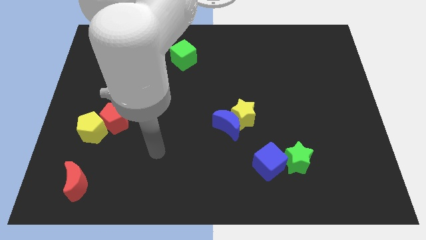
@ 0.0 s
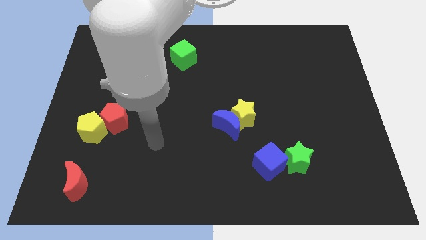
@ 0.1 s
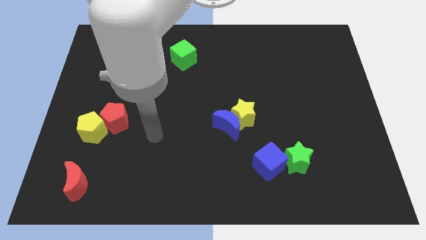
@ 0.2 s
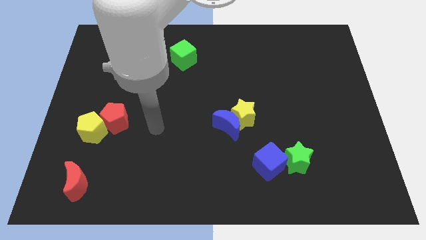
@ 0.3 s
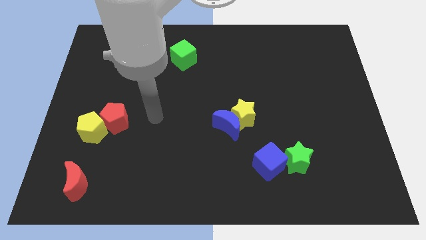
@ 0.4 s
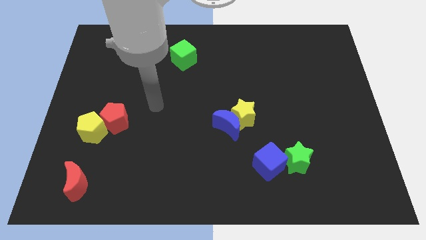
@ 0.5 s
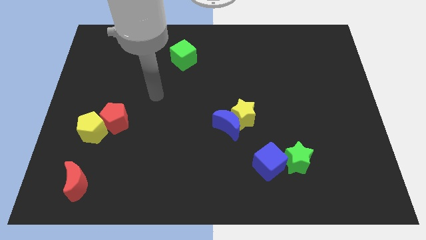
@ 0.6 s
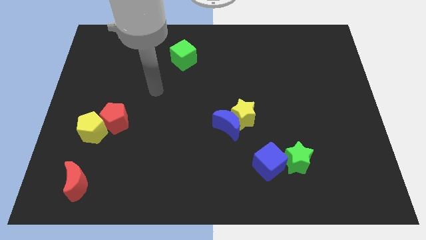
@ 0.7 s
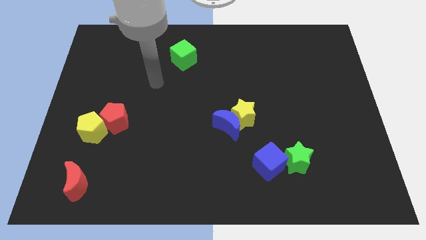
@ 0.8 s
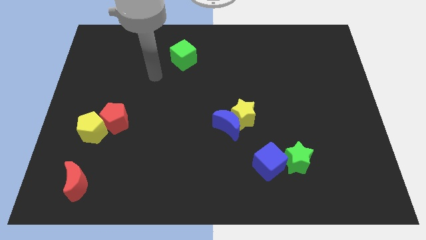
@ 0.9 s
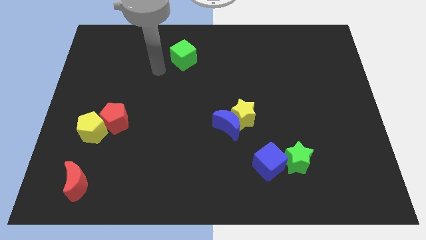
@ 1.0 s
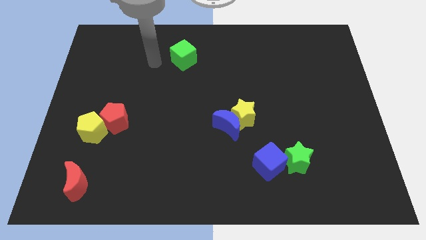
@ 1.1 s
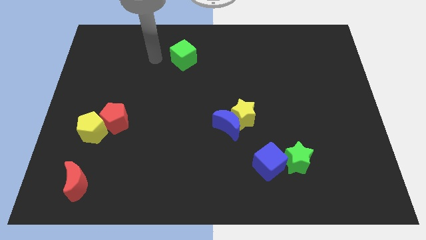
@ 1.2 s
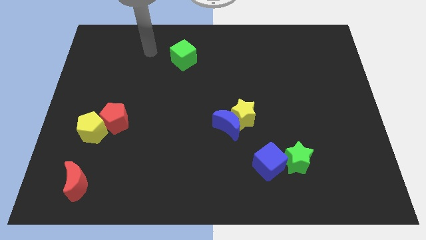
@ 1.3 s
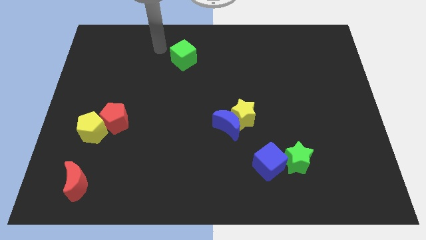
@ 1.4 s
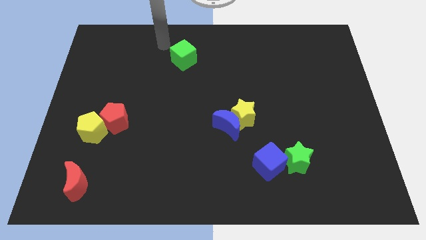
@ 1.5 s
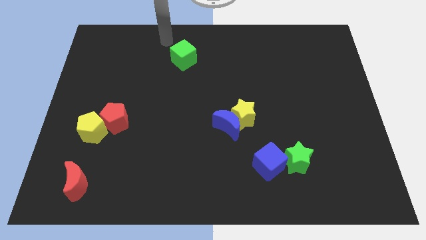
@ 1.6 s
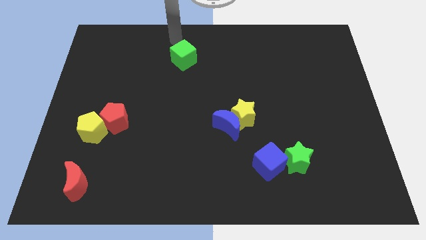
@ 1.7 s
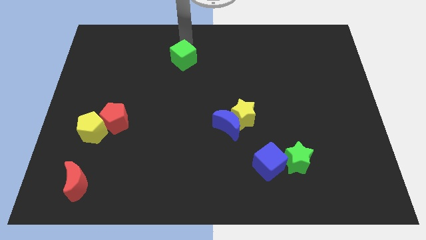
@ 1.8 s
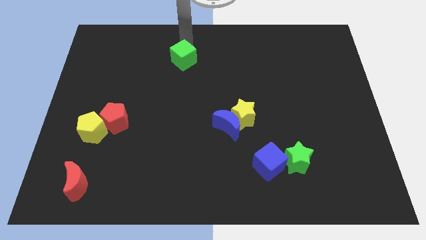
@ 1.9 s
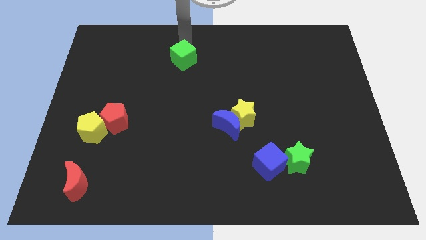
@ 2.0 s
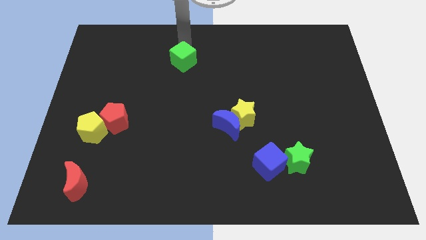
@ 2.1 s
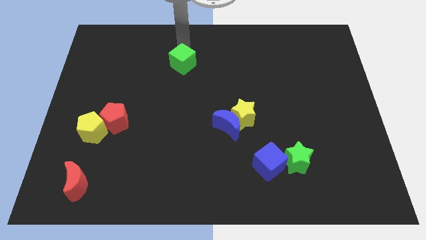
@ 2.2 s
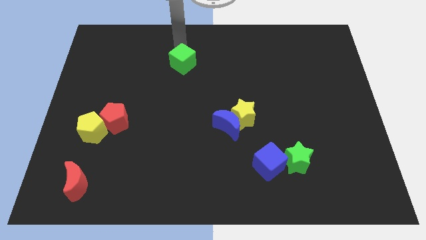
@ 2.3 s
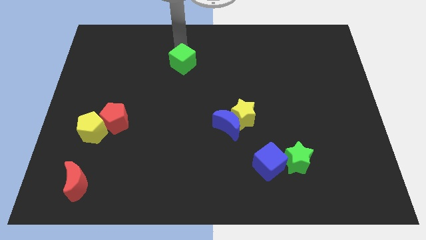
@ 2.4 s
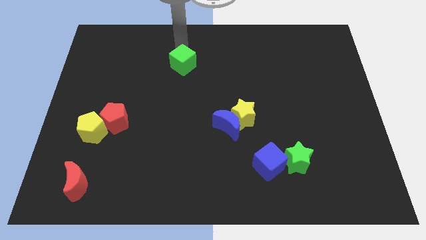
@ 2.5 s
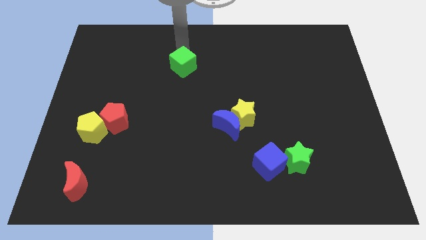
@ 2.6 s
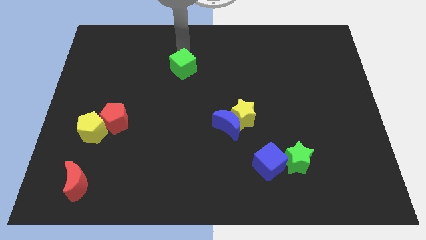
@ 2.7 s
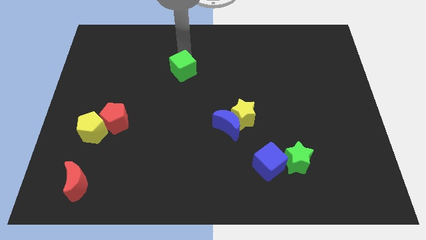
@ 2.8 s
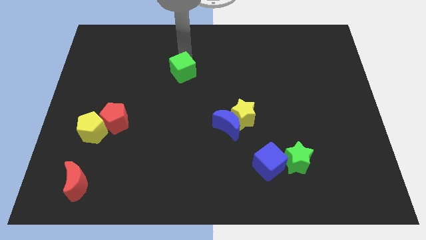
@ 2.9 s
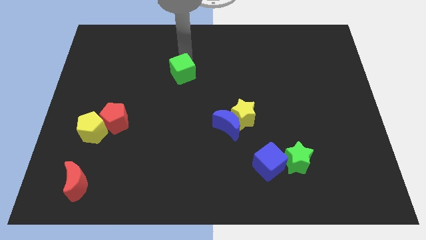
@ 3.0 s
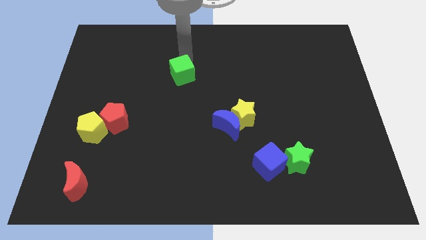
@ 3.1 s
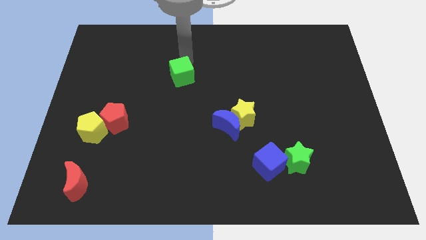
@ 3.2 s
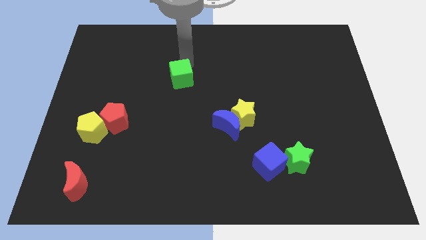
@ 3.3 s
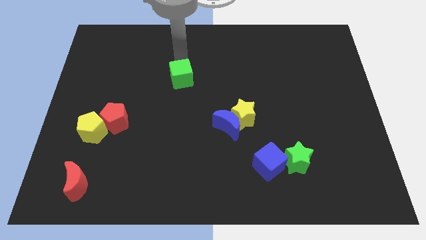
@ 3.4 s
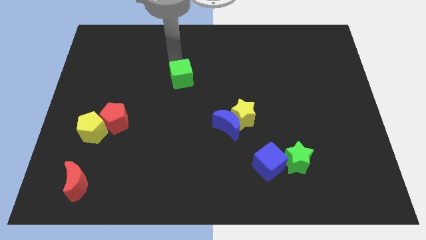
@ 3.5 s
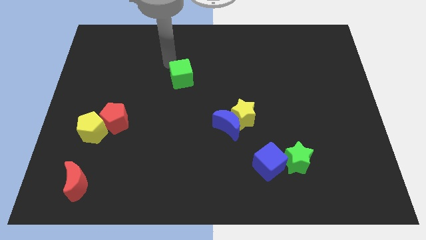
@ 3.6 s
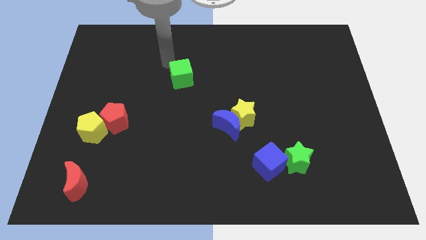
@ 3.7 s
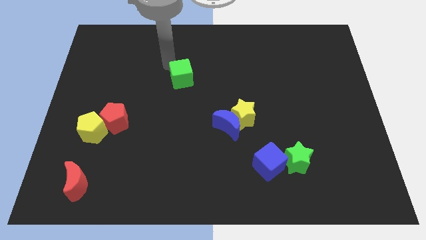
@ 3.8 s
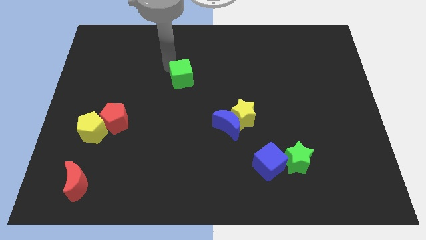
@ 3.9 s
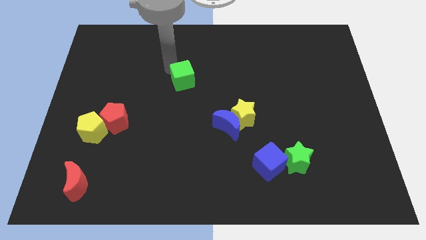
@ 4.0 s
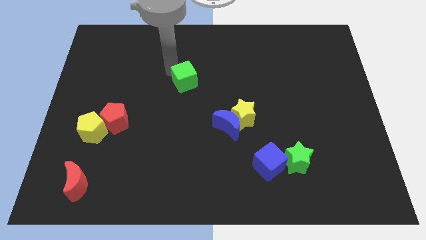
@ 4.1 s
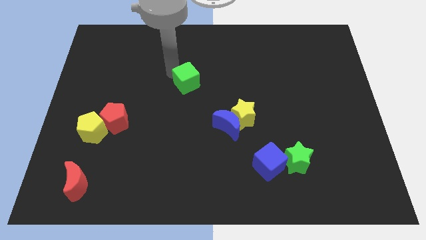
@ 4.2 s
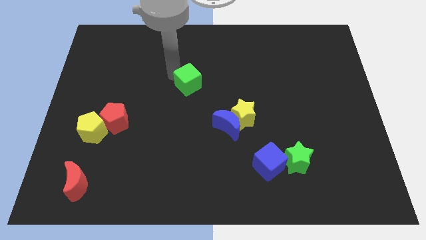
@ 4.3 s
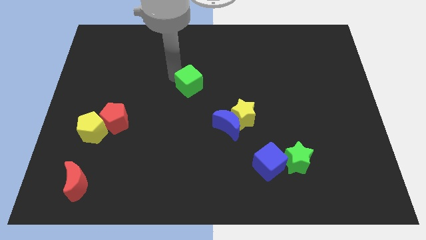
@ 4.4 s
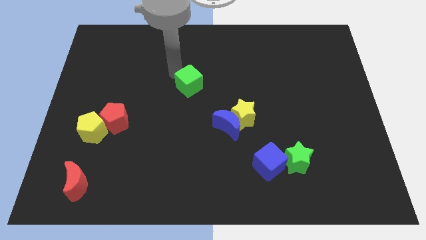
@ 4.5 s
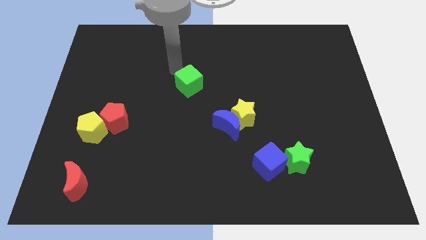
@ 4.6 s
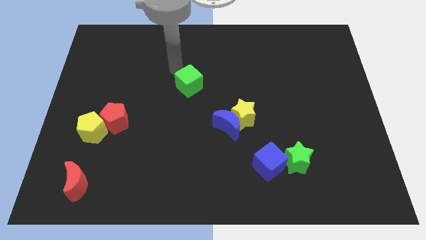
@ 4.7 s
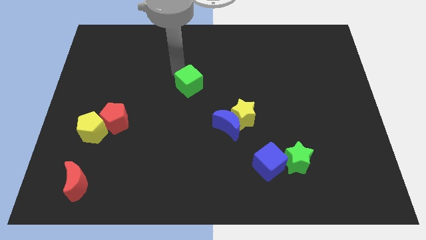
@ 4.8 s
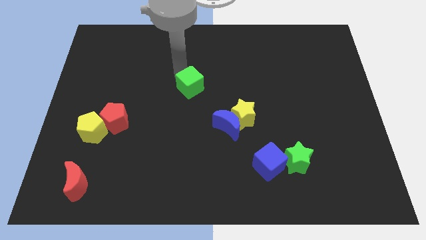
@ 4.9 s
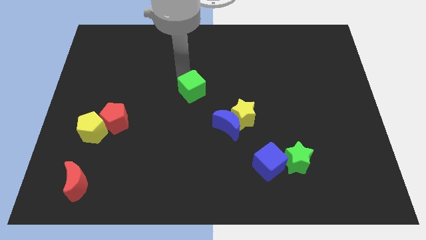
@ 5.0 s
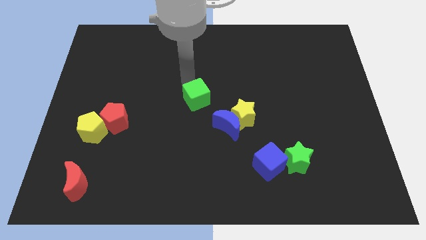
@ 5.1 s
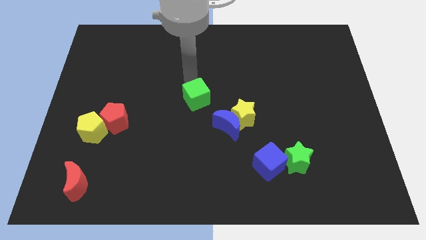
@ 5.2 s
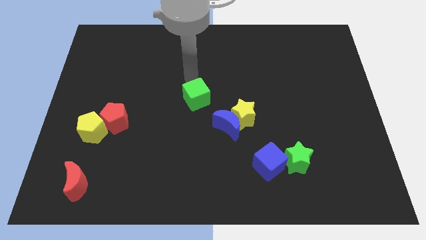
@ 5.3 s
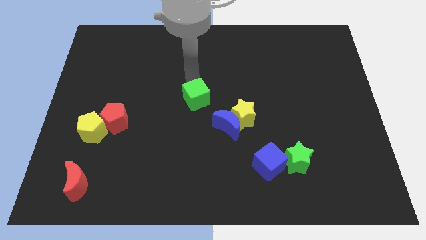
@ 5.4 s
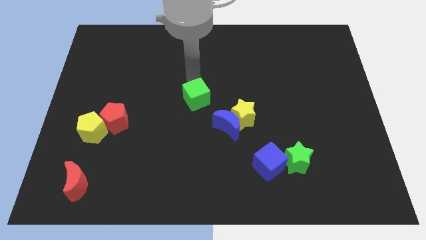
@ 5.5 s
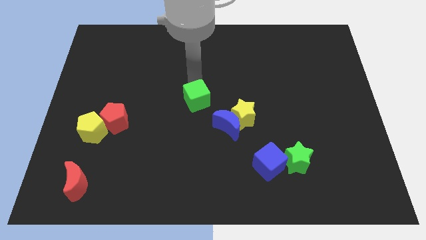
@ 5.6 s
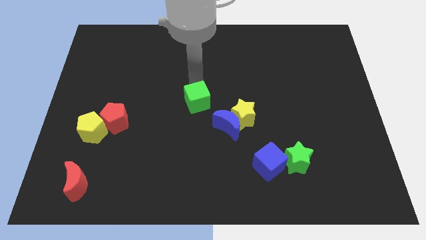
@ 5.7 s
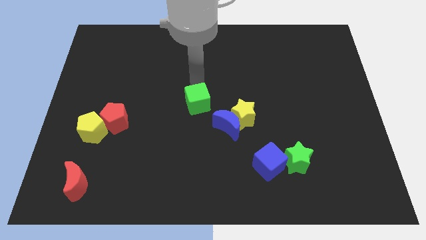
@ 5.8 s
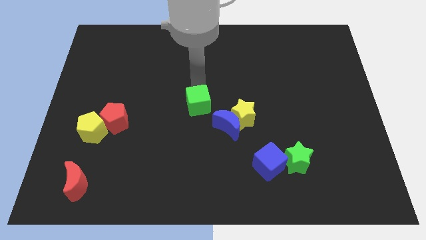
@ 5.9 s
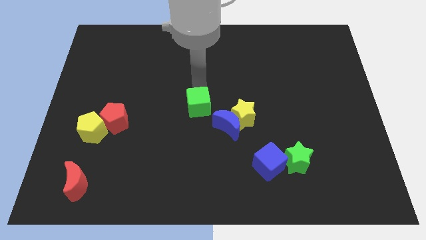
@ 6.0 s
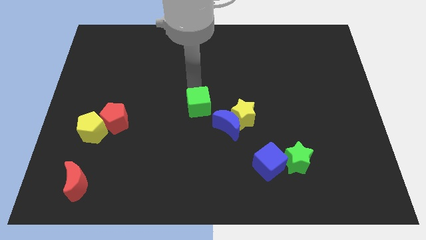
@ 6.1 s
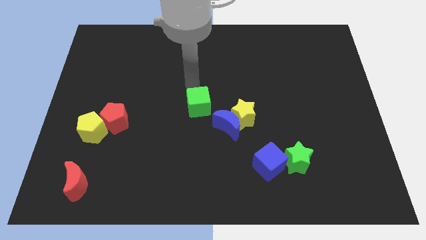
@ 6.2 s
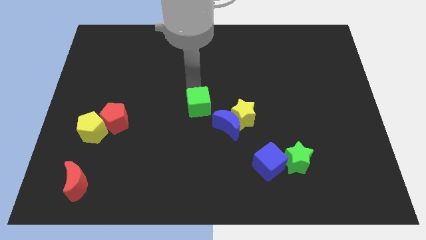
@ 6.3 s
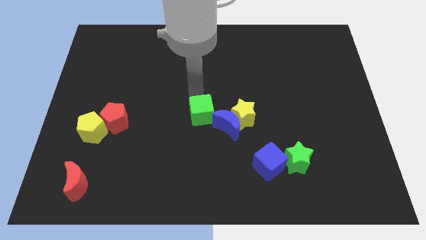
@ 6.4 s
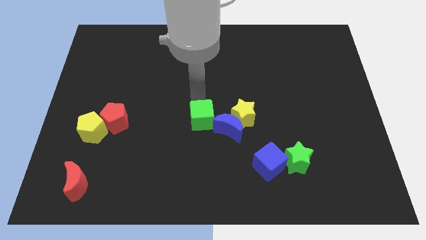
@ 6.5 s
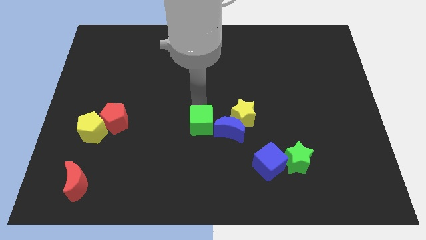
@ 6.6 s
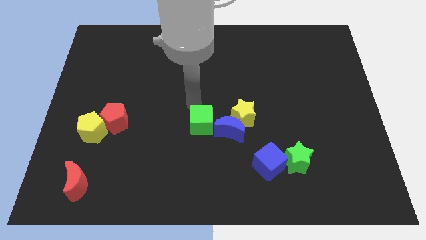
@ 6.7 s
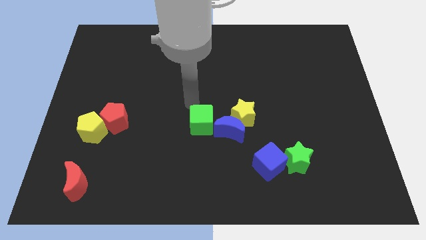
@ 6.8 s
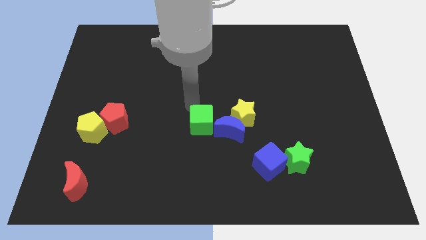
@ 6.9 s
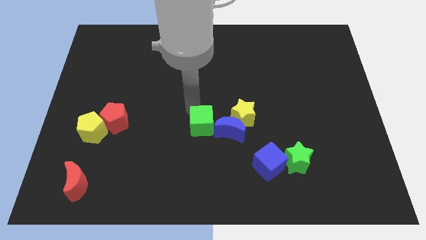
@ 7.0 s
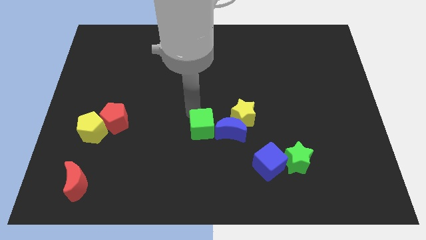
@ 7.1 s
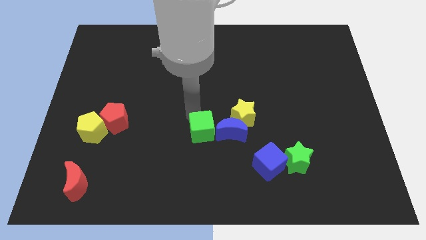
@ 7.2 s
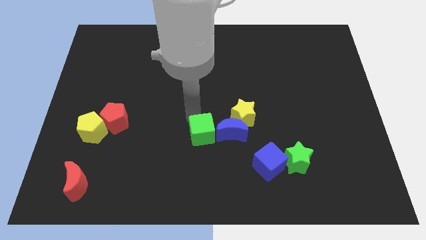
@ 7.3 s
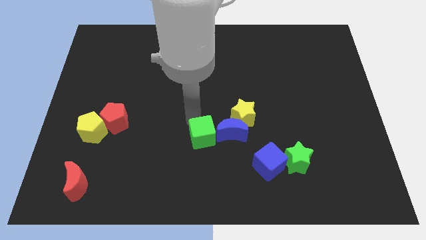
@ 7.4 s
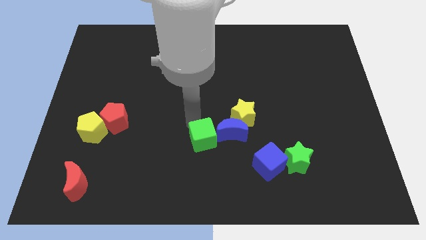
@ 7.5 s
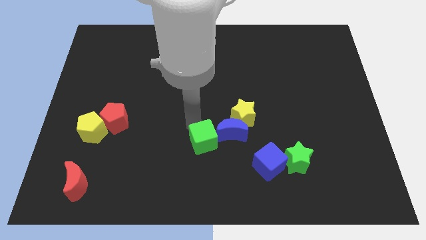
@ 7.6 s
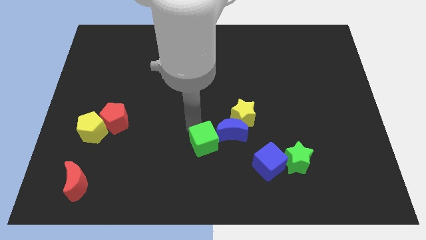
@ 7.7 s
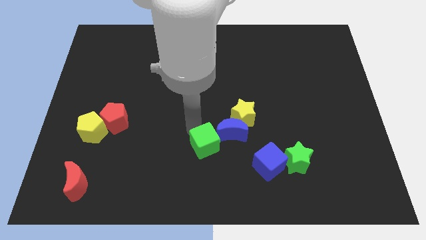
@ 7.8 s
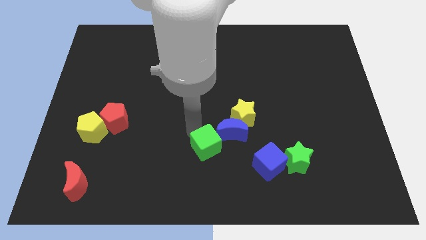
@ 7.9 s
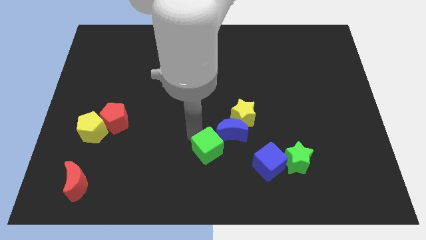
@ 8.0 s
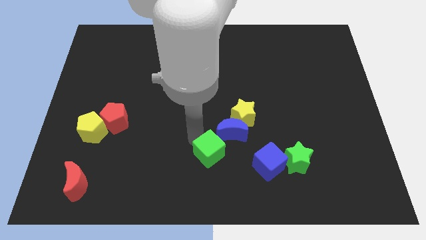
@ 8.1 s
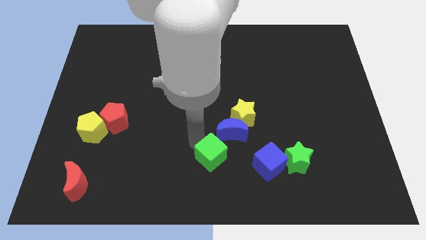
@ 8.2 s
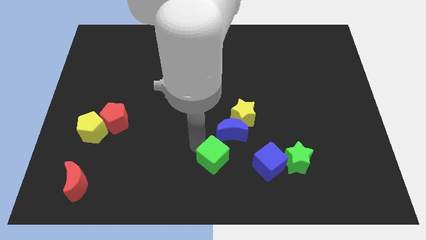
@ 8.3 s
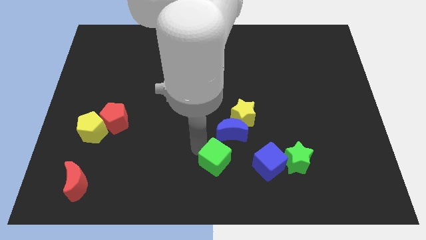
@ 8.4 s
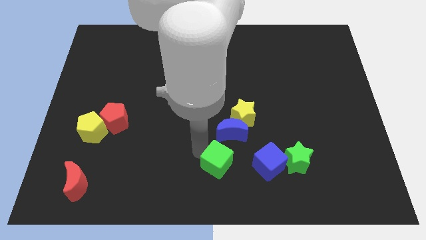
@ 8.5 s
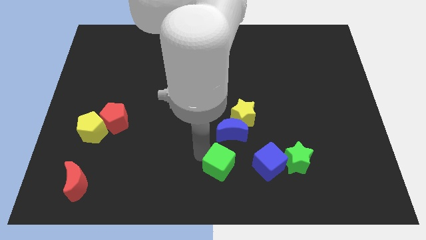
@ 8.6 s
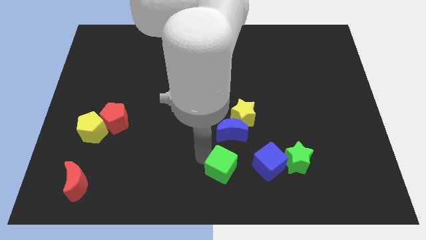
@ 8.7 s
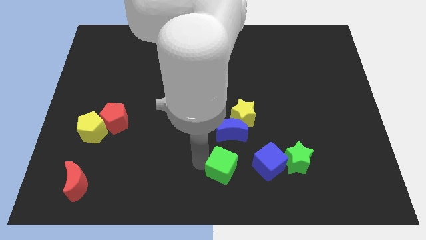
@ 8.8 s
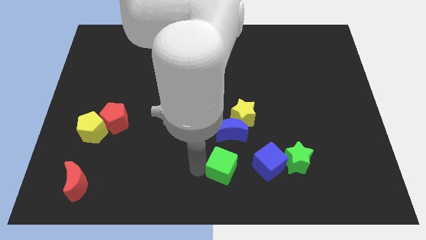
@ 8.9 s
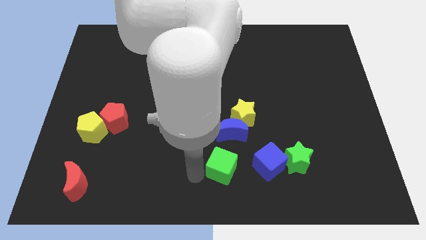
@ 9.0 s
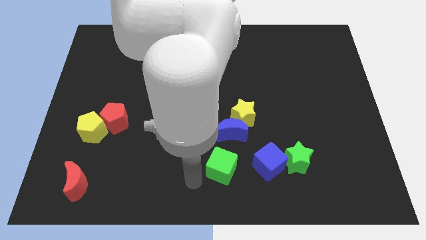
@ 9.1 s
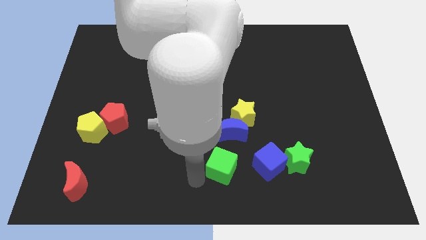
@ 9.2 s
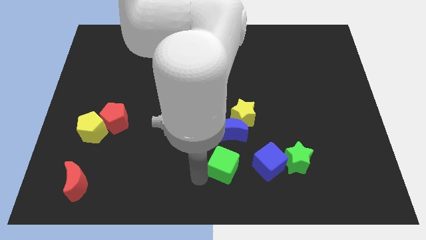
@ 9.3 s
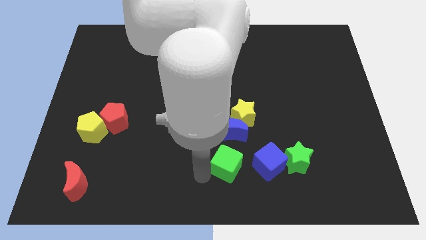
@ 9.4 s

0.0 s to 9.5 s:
push the green cube to the bottom side of the yellow star
